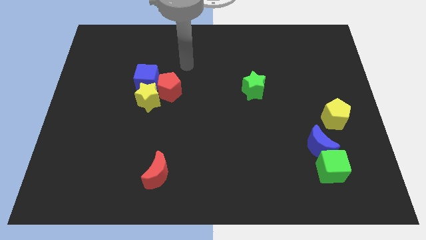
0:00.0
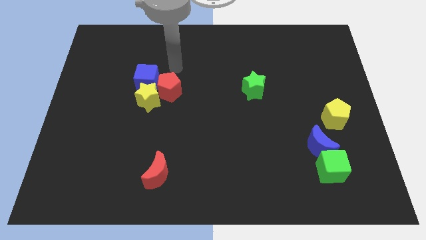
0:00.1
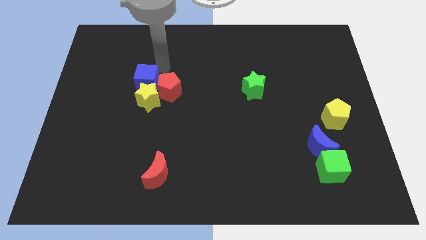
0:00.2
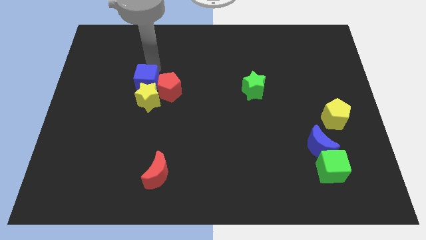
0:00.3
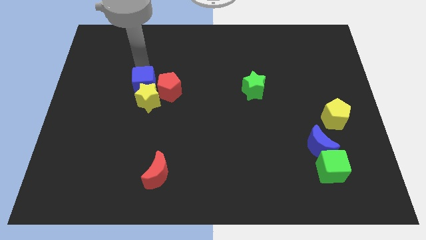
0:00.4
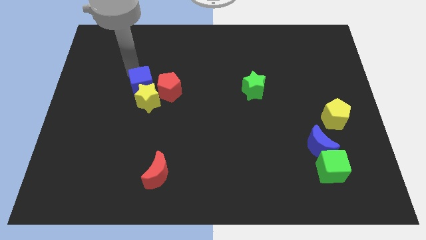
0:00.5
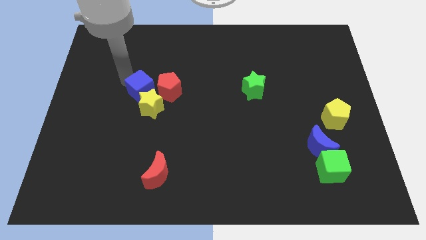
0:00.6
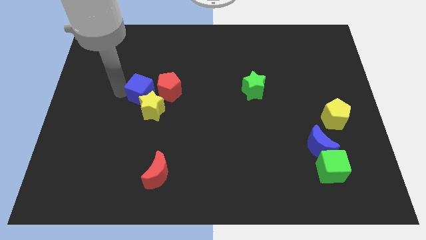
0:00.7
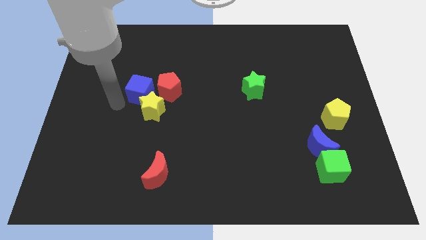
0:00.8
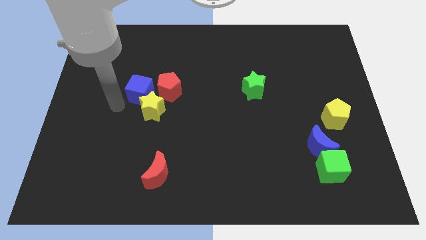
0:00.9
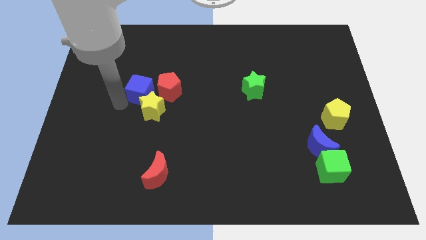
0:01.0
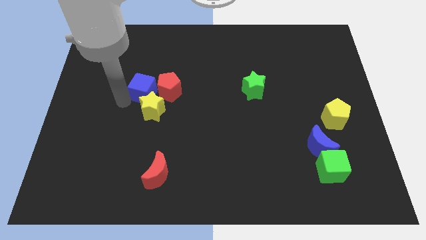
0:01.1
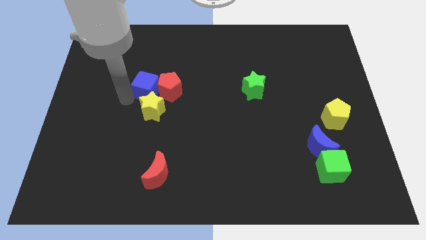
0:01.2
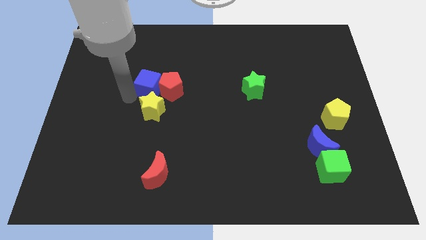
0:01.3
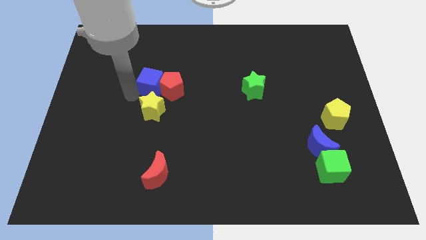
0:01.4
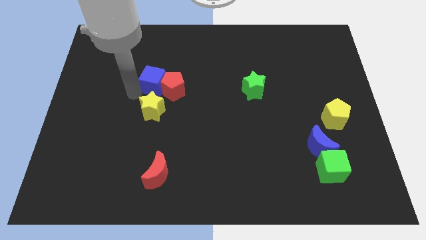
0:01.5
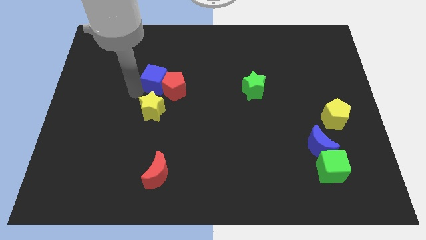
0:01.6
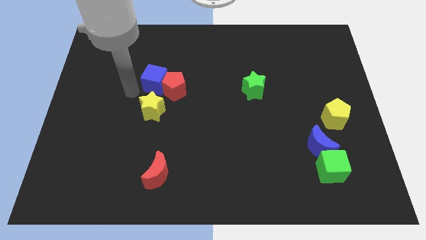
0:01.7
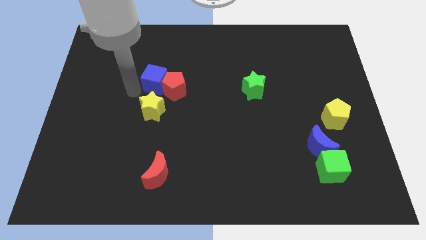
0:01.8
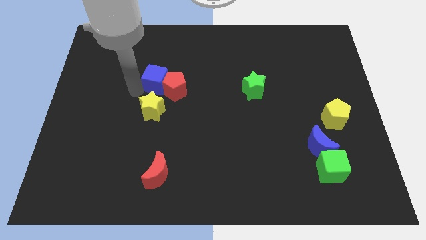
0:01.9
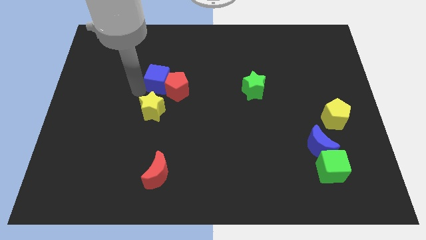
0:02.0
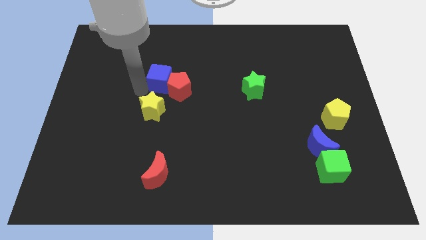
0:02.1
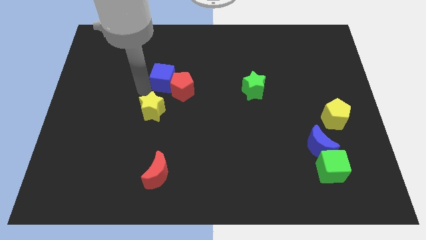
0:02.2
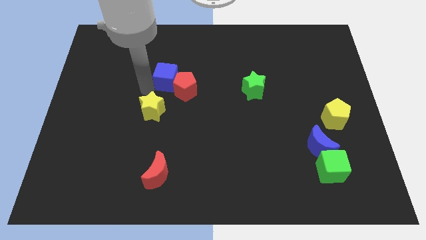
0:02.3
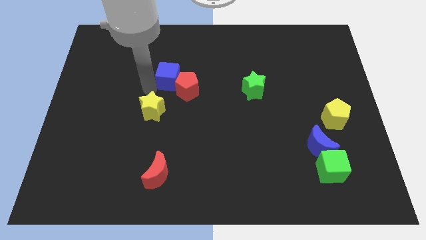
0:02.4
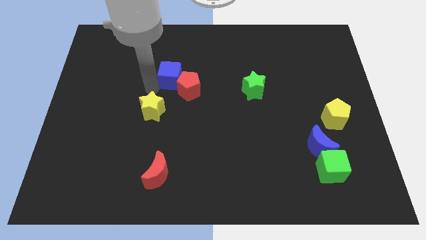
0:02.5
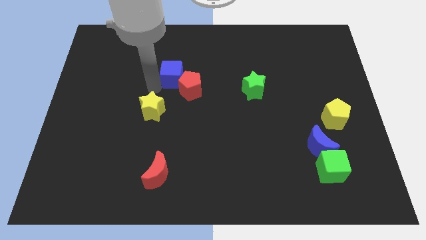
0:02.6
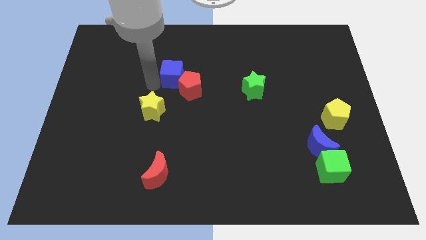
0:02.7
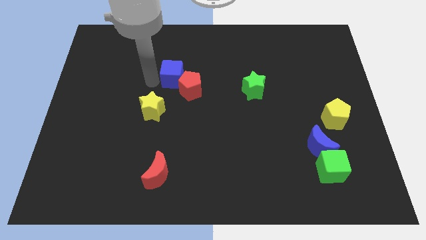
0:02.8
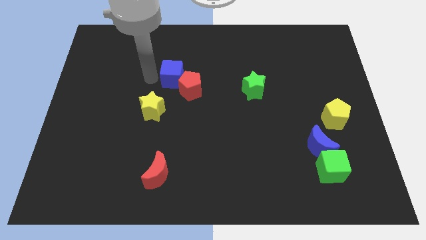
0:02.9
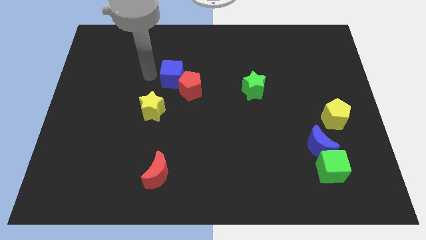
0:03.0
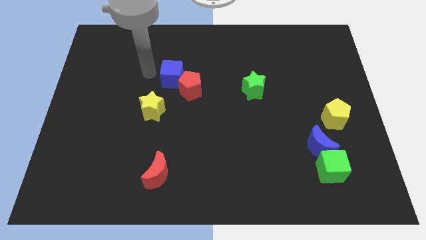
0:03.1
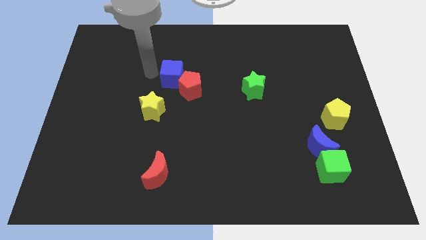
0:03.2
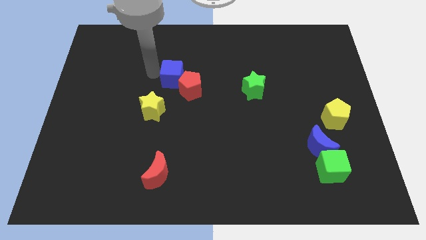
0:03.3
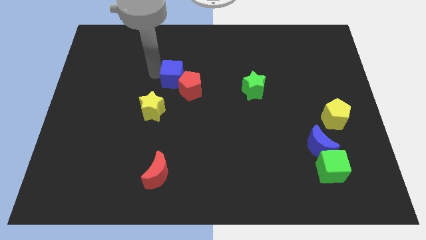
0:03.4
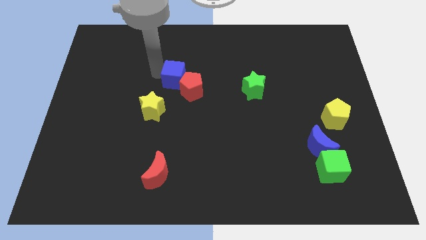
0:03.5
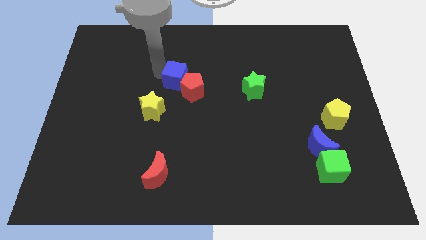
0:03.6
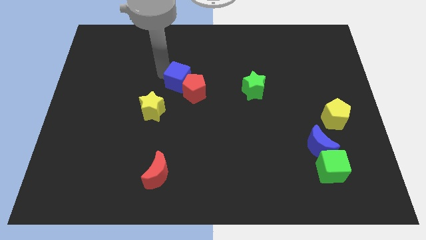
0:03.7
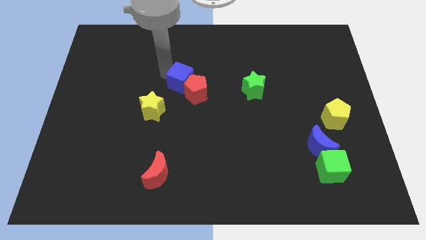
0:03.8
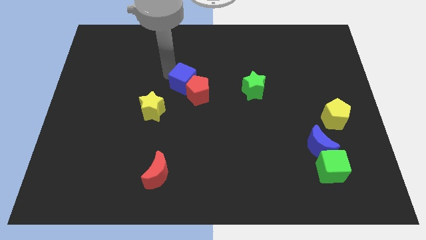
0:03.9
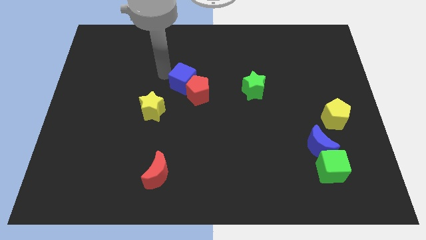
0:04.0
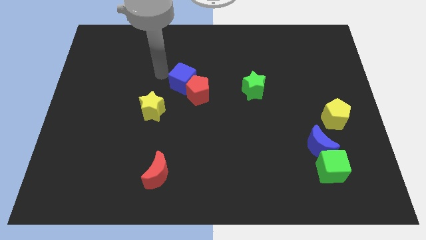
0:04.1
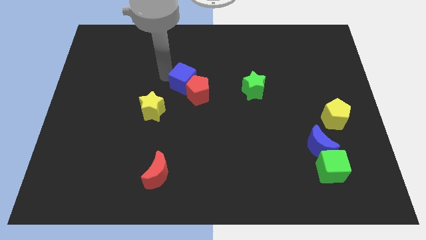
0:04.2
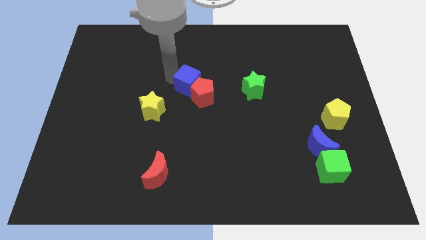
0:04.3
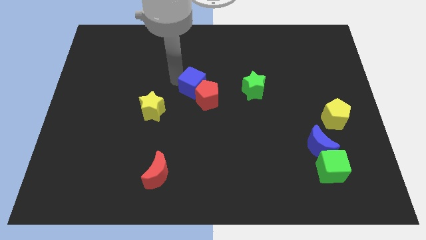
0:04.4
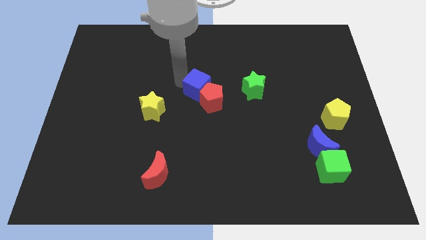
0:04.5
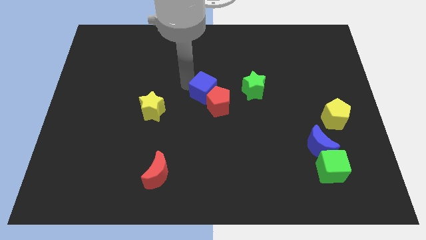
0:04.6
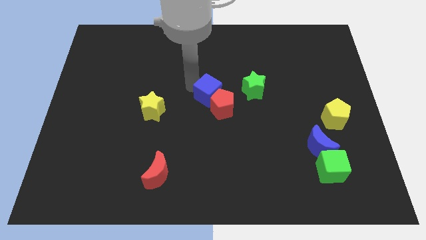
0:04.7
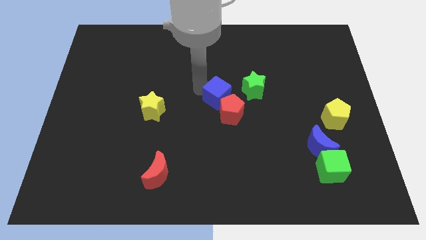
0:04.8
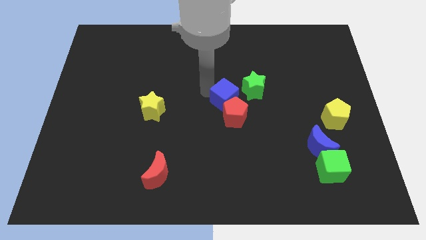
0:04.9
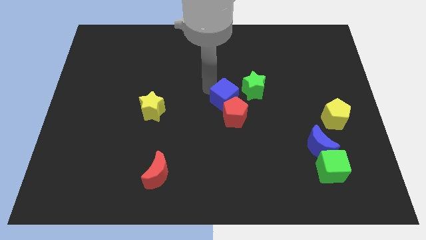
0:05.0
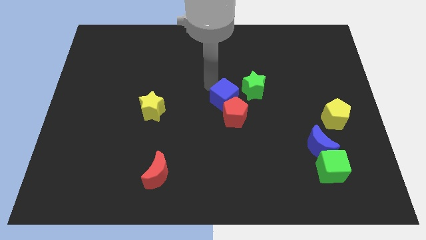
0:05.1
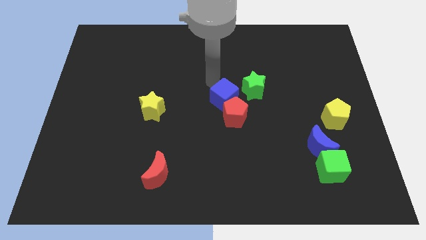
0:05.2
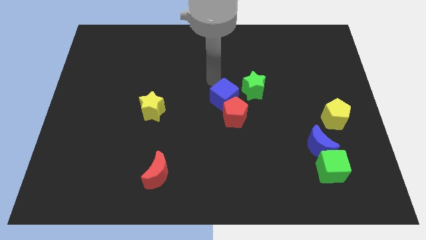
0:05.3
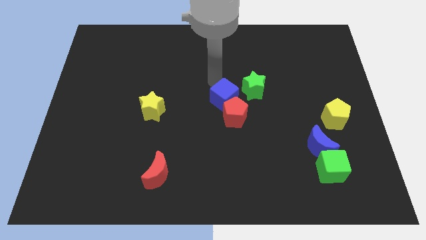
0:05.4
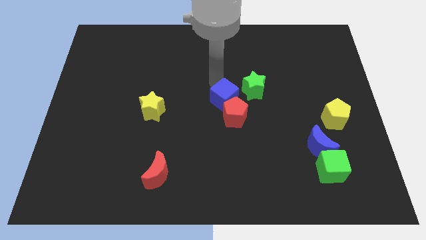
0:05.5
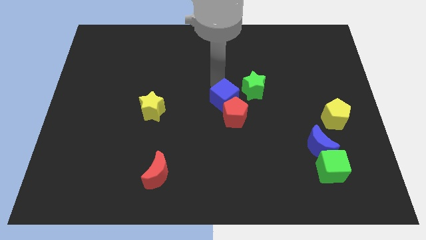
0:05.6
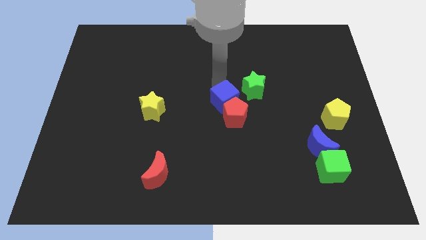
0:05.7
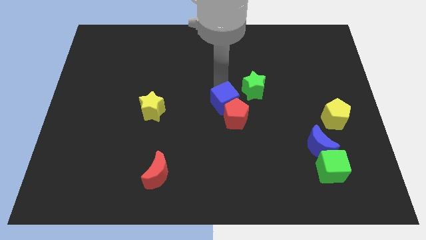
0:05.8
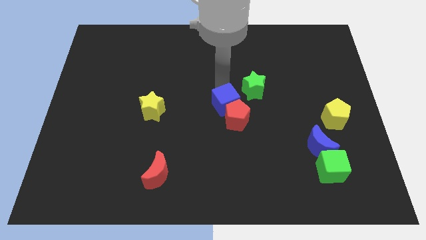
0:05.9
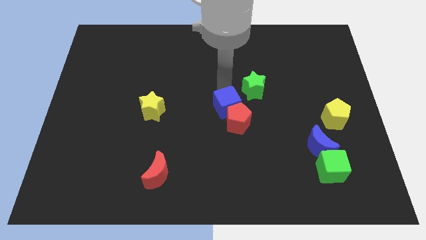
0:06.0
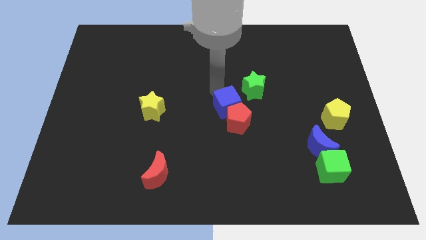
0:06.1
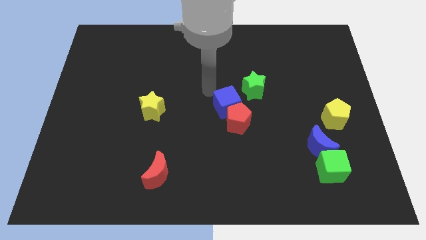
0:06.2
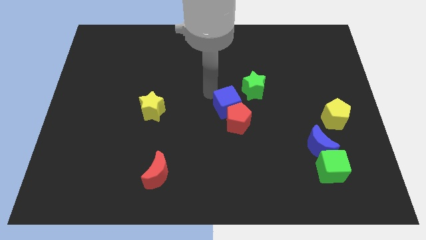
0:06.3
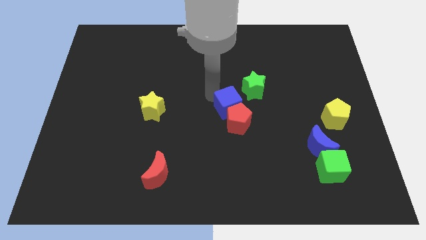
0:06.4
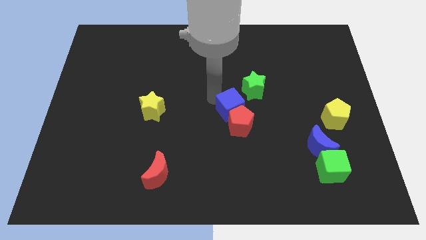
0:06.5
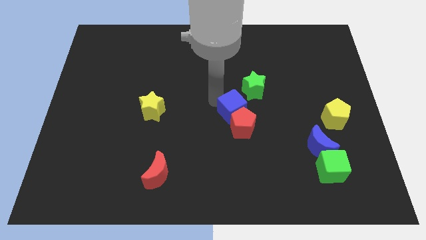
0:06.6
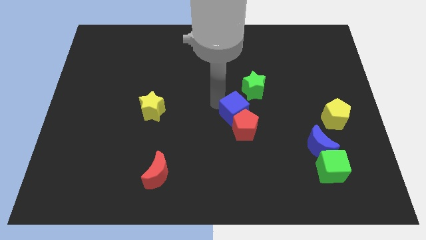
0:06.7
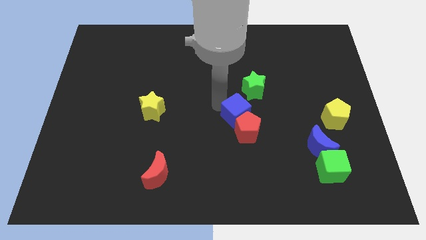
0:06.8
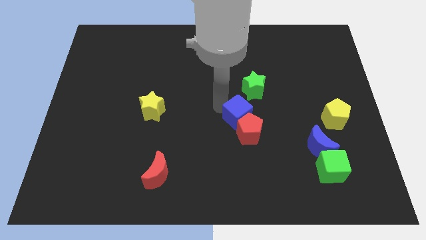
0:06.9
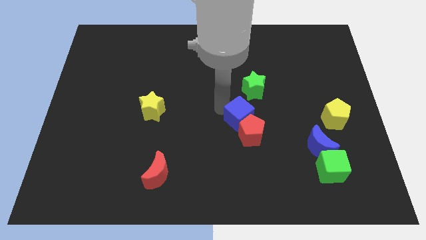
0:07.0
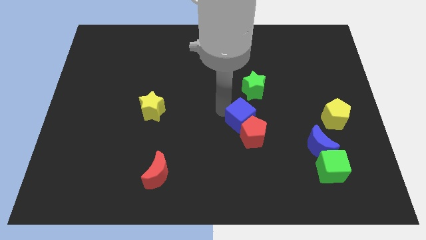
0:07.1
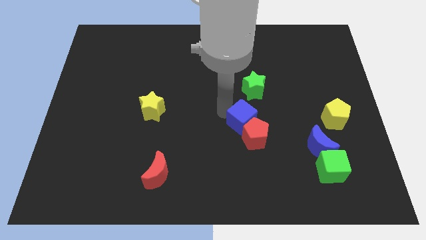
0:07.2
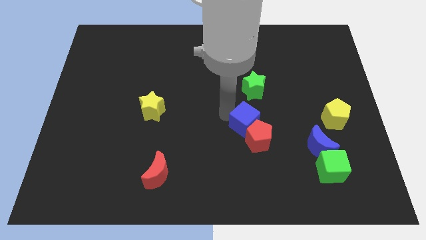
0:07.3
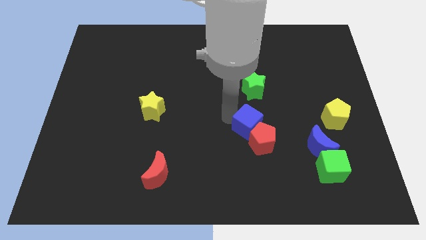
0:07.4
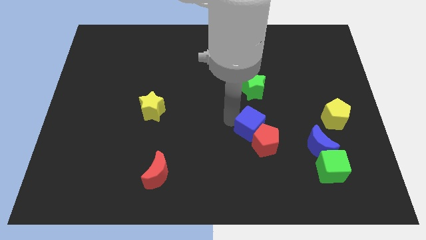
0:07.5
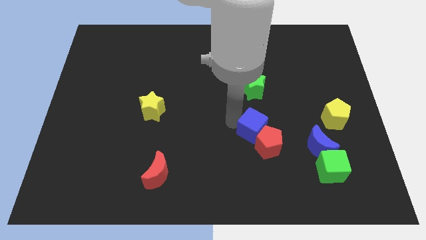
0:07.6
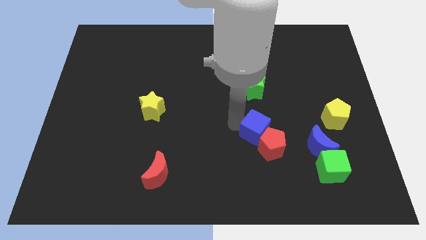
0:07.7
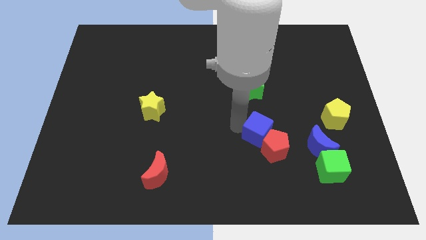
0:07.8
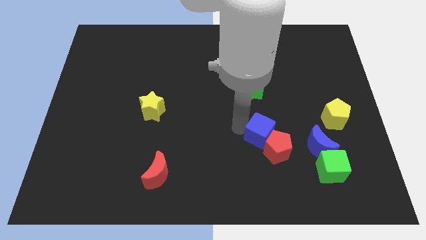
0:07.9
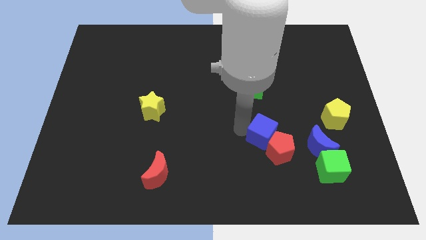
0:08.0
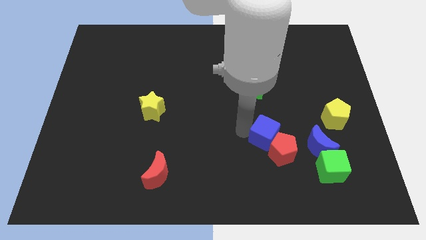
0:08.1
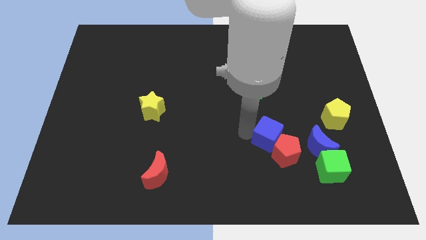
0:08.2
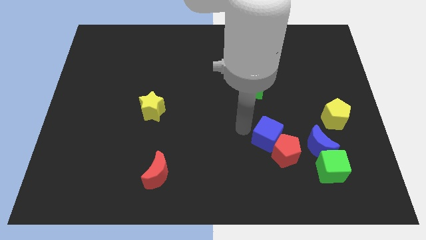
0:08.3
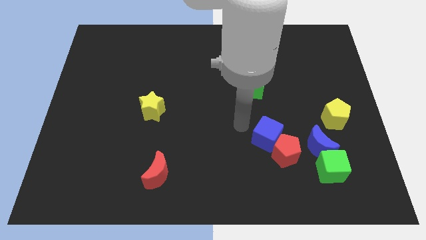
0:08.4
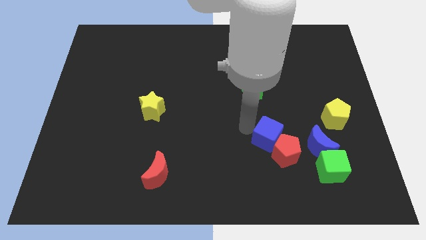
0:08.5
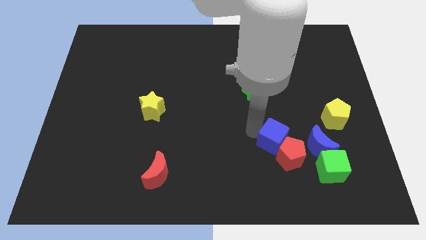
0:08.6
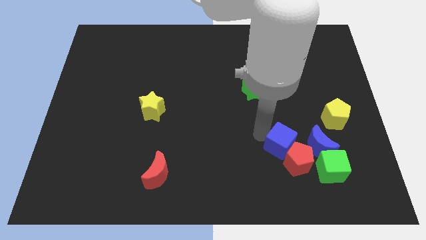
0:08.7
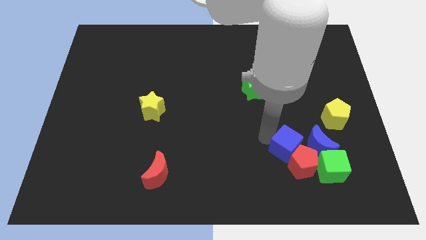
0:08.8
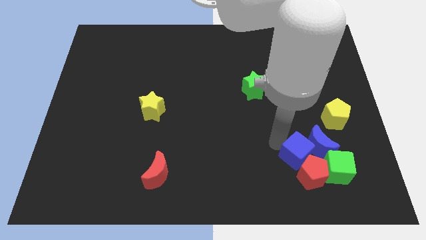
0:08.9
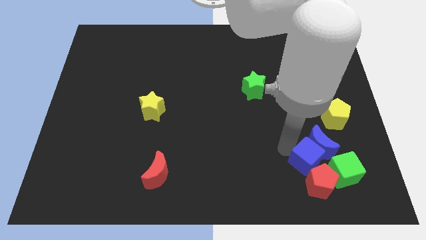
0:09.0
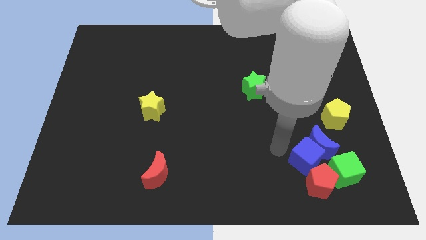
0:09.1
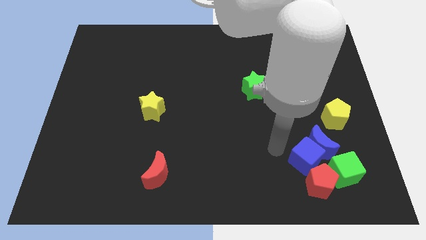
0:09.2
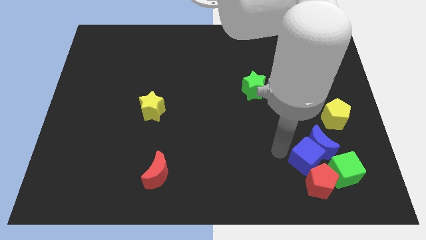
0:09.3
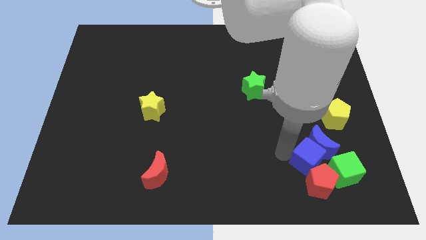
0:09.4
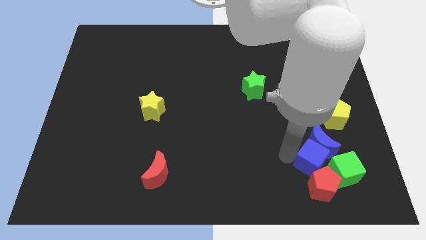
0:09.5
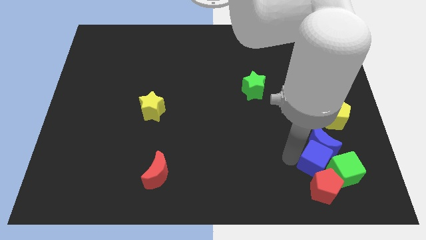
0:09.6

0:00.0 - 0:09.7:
put the blue cube to the green cube
